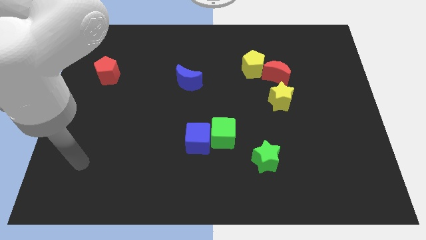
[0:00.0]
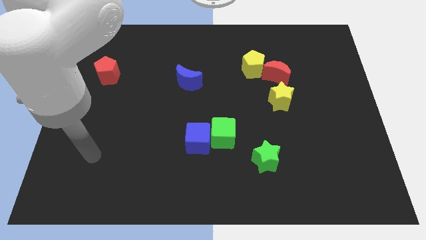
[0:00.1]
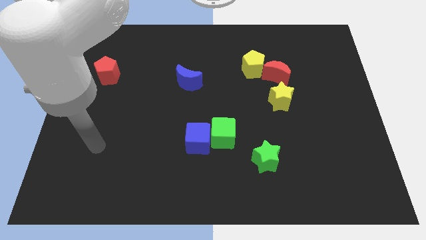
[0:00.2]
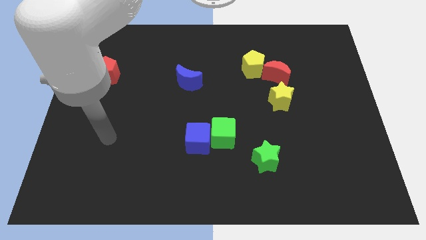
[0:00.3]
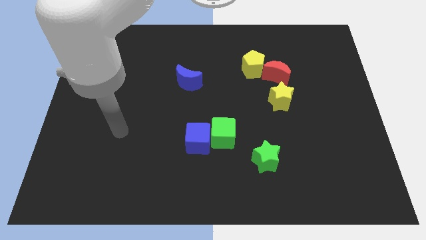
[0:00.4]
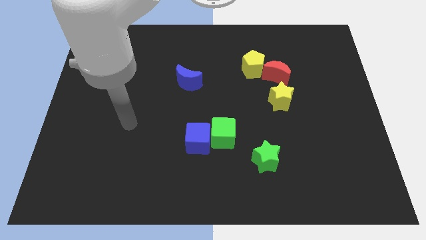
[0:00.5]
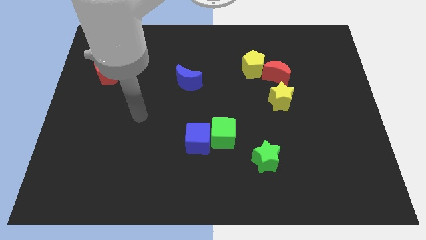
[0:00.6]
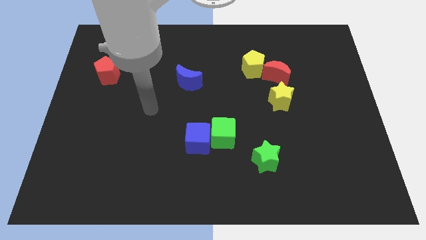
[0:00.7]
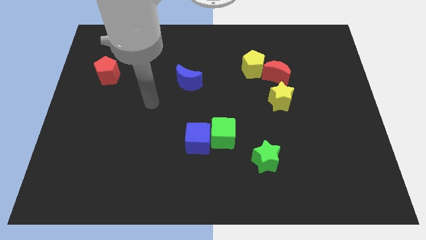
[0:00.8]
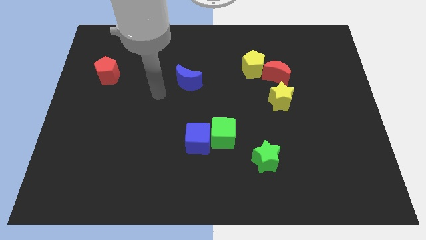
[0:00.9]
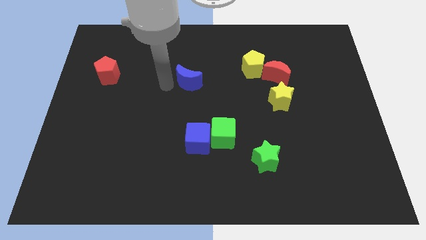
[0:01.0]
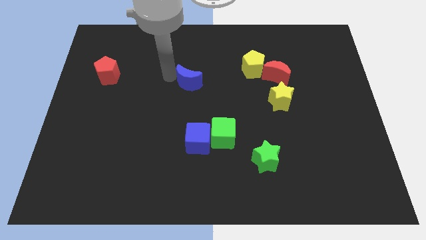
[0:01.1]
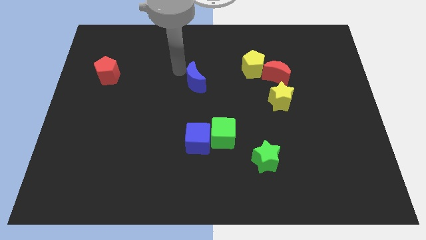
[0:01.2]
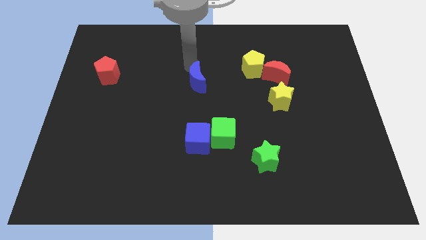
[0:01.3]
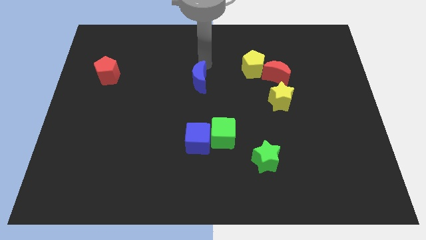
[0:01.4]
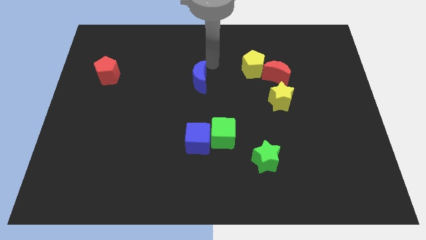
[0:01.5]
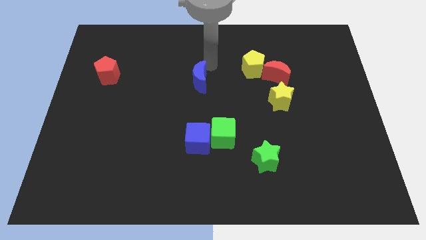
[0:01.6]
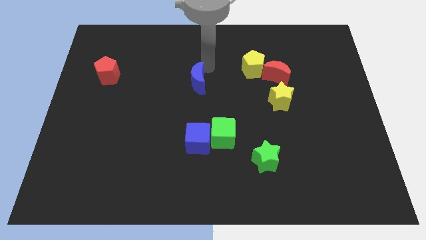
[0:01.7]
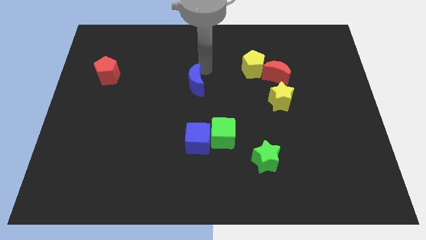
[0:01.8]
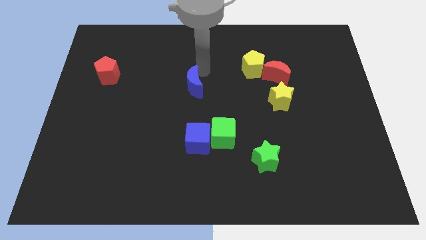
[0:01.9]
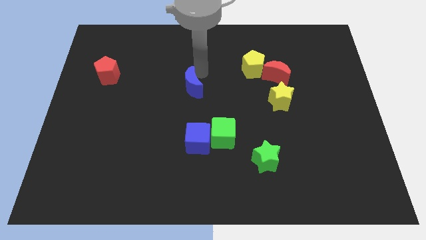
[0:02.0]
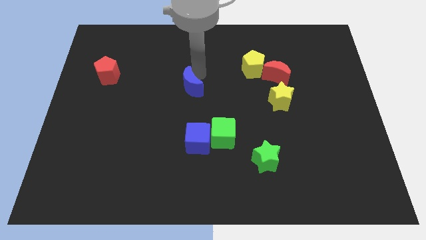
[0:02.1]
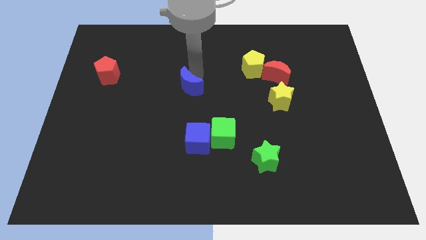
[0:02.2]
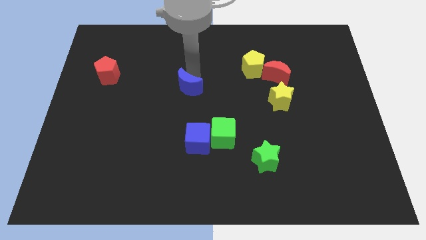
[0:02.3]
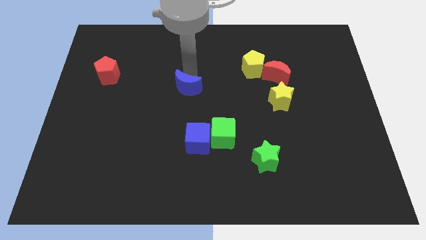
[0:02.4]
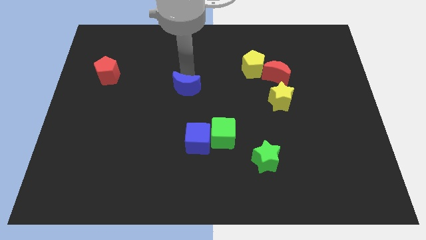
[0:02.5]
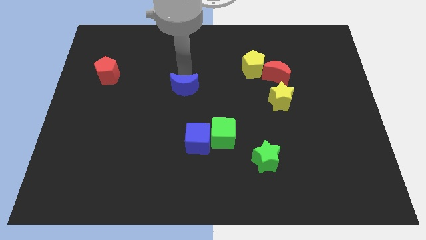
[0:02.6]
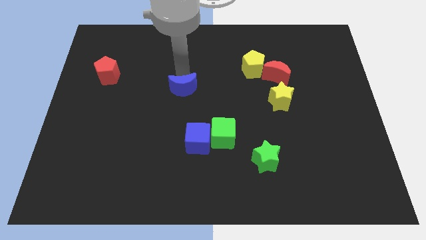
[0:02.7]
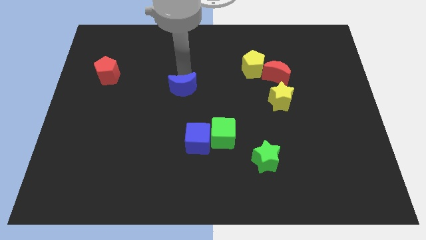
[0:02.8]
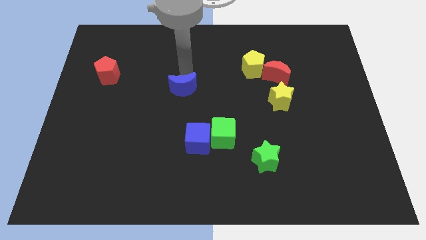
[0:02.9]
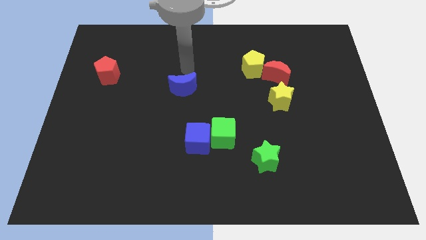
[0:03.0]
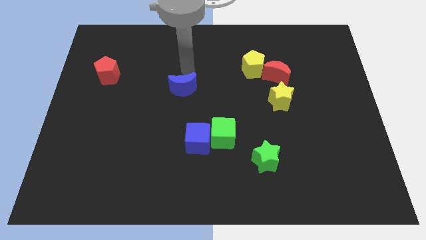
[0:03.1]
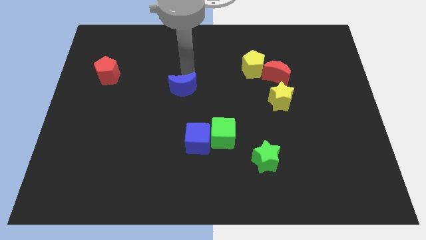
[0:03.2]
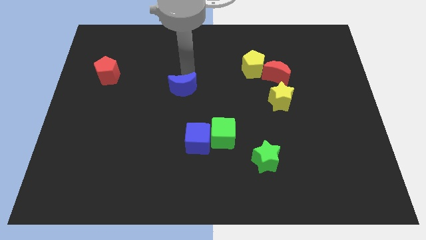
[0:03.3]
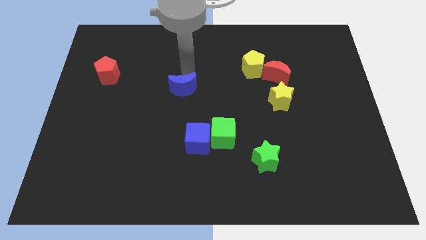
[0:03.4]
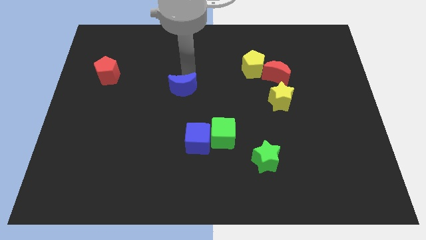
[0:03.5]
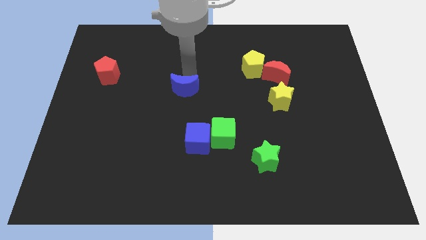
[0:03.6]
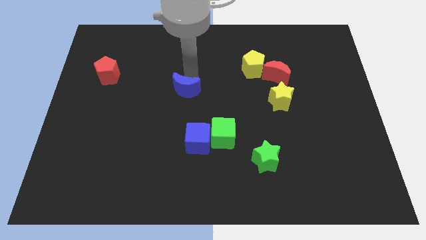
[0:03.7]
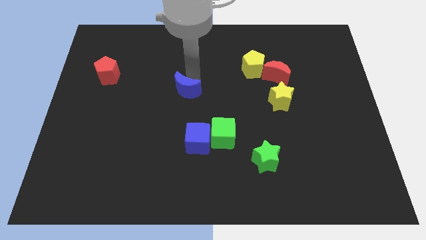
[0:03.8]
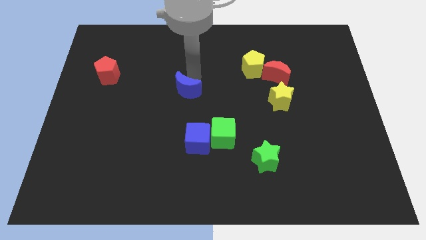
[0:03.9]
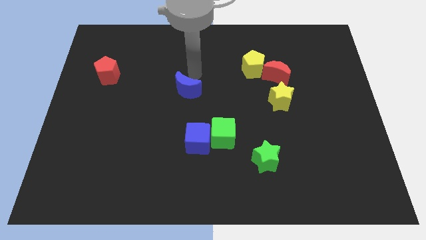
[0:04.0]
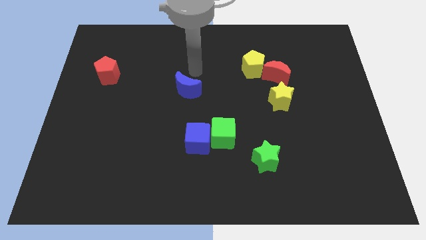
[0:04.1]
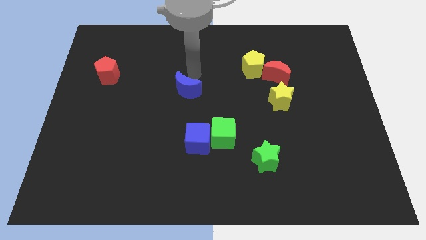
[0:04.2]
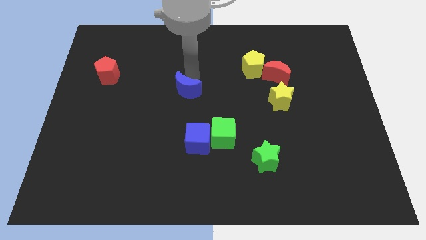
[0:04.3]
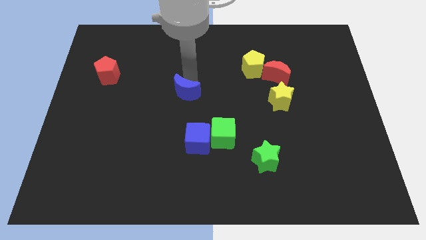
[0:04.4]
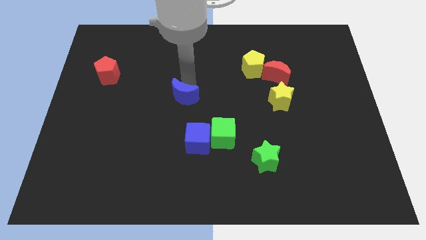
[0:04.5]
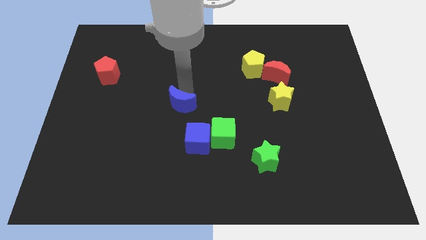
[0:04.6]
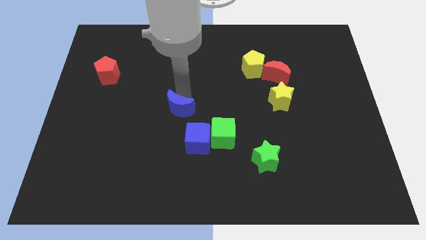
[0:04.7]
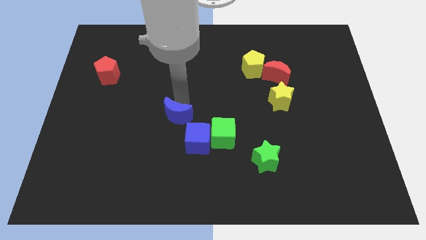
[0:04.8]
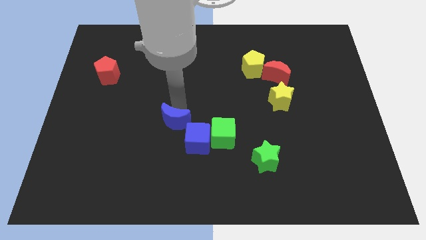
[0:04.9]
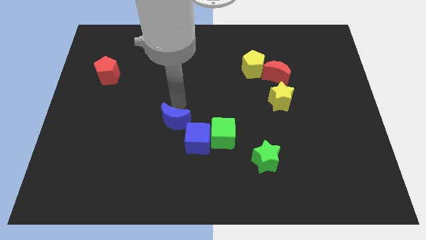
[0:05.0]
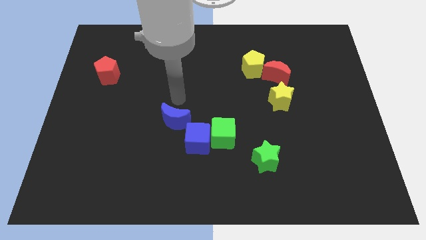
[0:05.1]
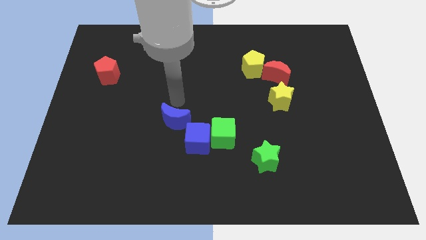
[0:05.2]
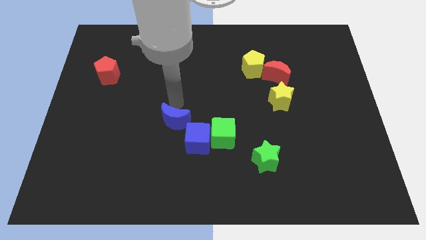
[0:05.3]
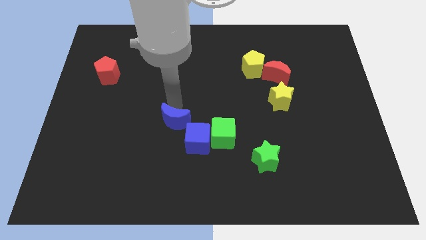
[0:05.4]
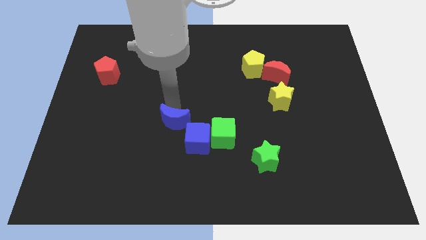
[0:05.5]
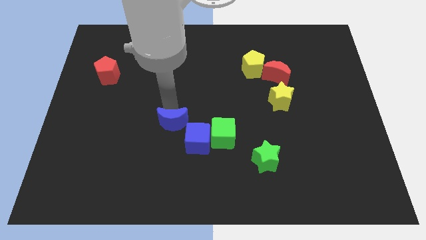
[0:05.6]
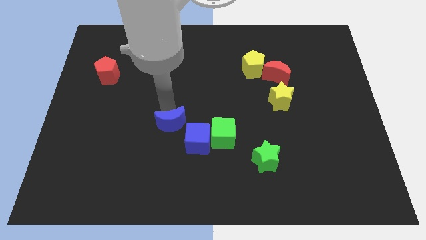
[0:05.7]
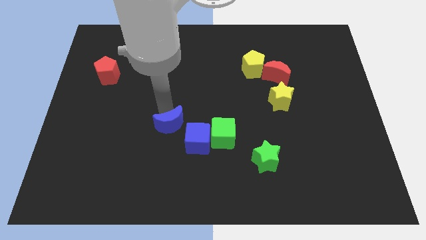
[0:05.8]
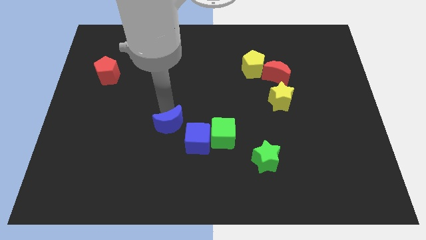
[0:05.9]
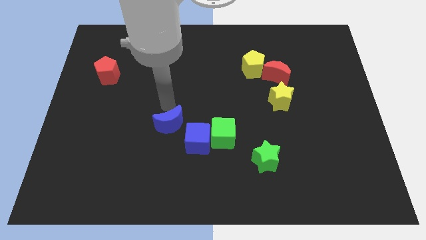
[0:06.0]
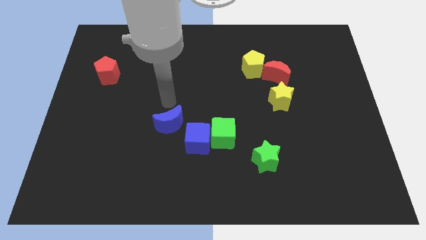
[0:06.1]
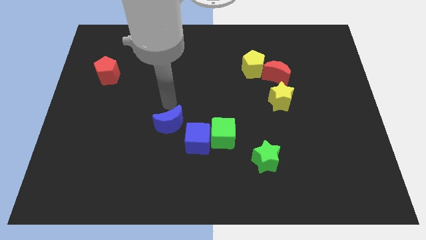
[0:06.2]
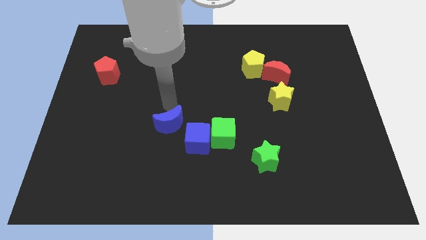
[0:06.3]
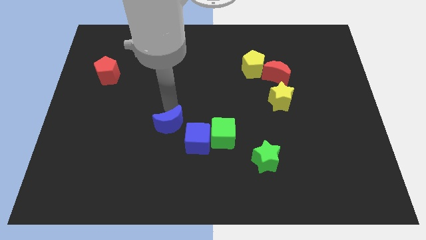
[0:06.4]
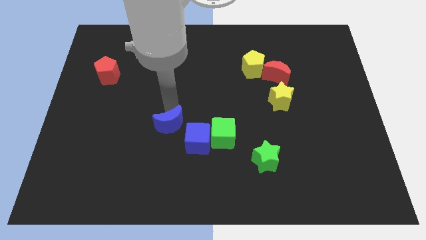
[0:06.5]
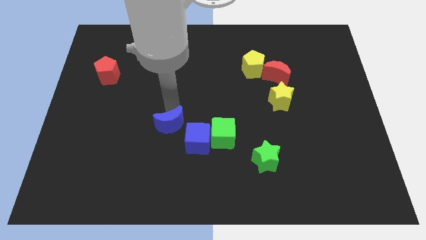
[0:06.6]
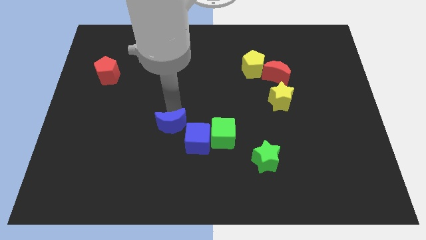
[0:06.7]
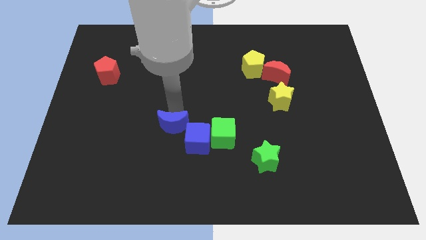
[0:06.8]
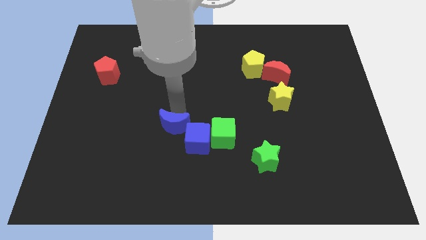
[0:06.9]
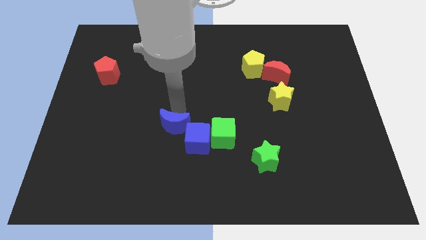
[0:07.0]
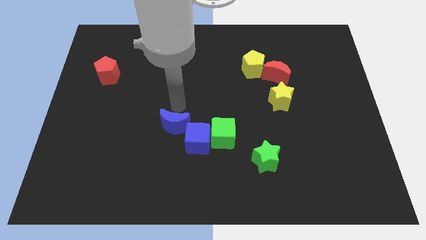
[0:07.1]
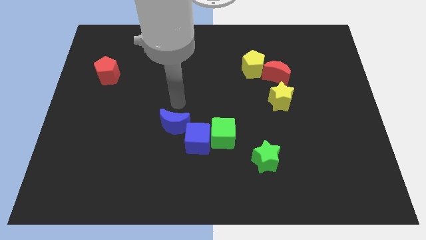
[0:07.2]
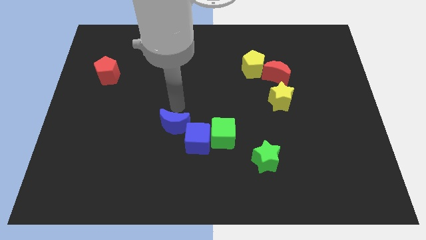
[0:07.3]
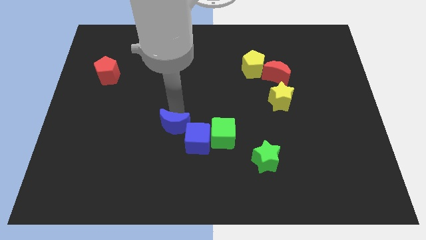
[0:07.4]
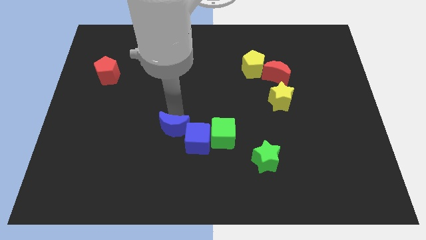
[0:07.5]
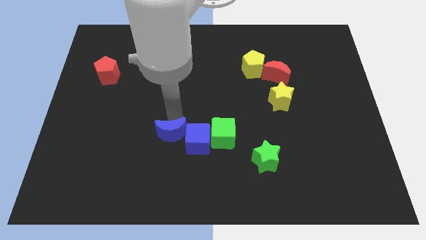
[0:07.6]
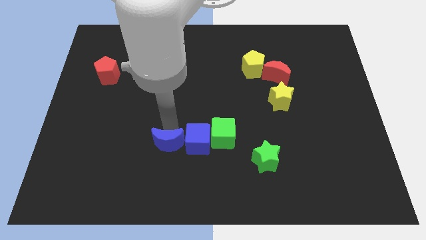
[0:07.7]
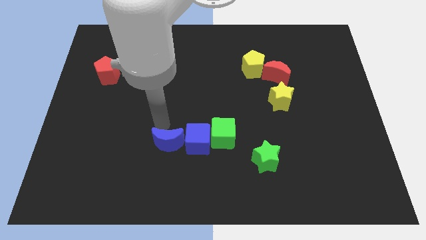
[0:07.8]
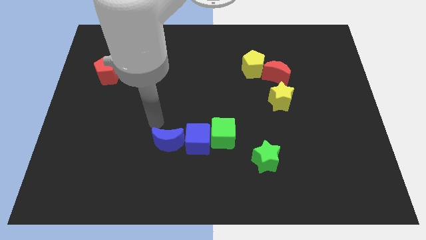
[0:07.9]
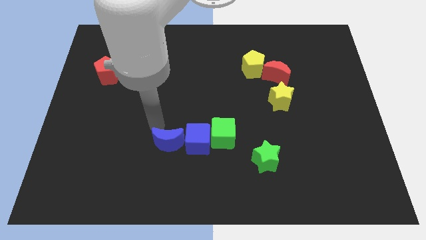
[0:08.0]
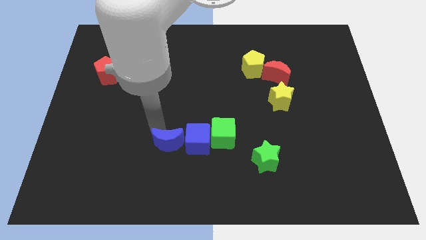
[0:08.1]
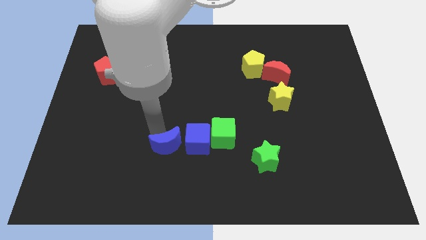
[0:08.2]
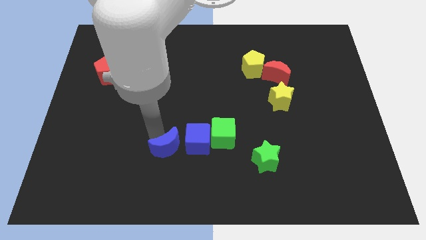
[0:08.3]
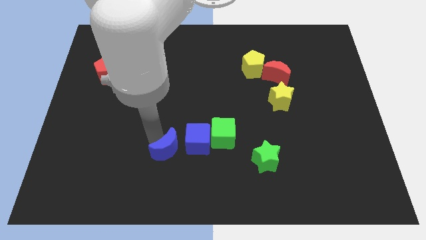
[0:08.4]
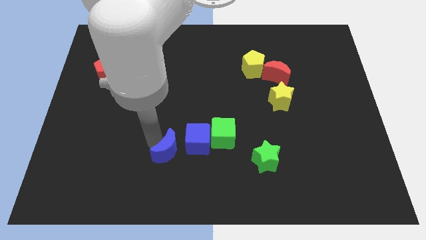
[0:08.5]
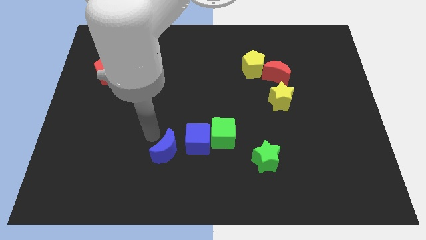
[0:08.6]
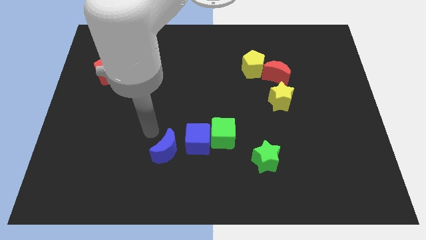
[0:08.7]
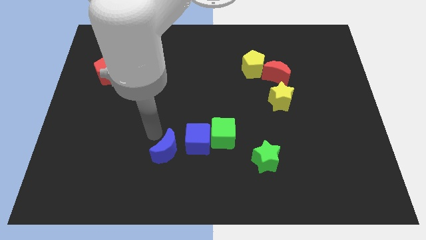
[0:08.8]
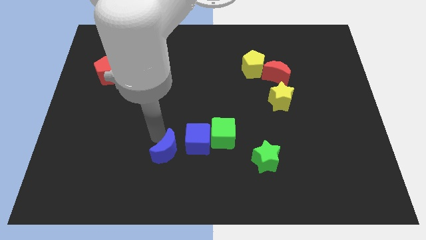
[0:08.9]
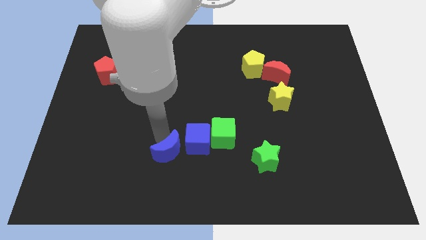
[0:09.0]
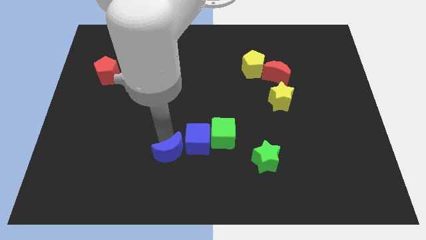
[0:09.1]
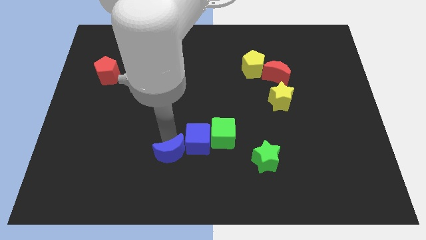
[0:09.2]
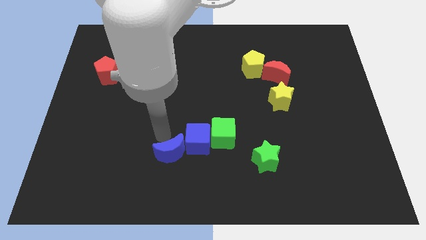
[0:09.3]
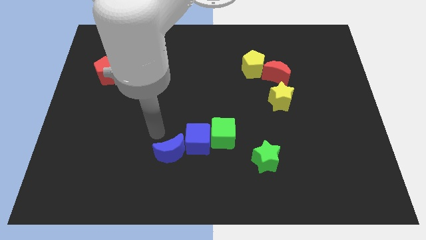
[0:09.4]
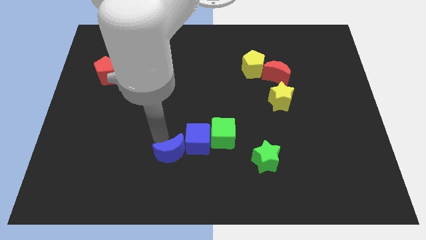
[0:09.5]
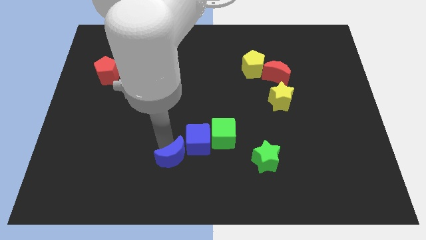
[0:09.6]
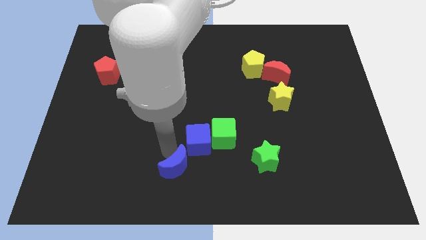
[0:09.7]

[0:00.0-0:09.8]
put the blue moon to the bottom of the blue cube
